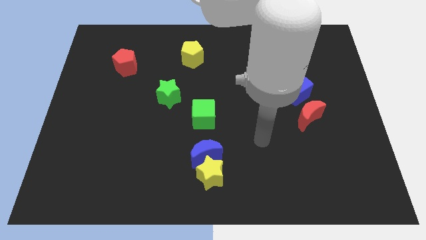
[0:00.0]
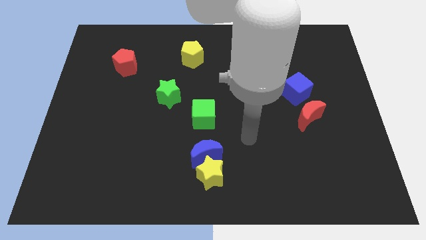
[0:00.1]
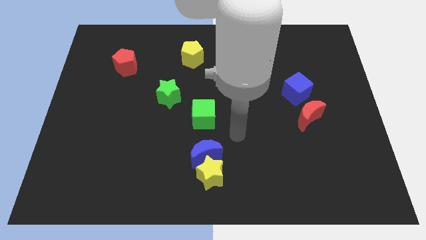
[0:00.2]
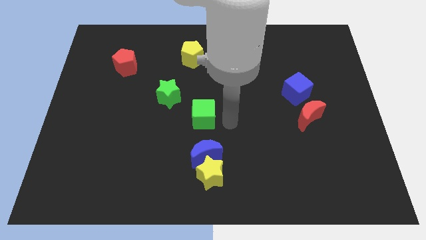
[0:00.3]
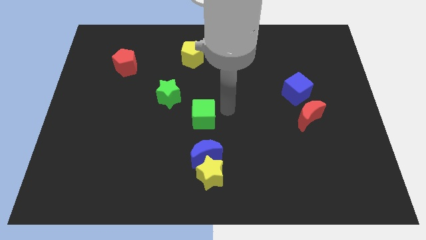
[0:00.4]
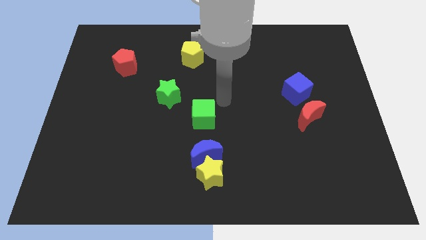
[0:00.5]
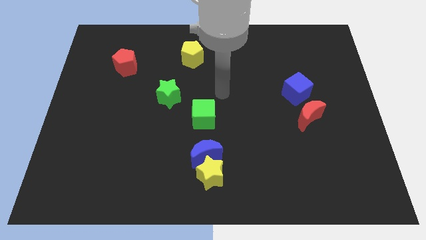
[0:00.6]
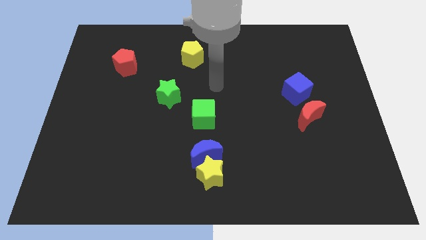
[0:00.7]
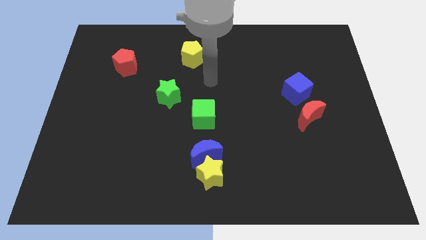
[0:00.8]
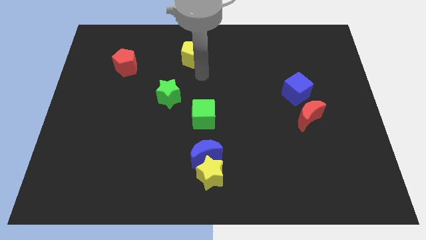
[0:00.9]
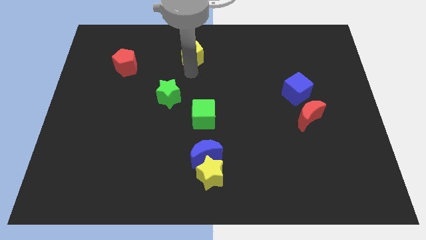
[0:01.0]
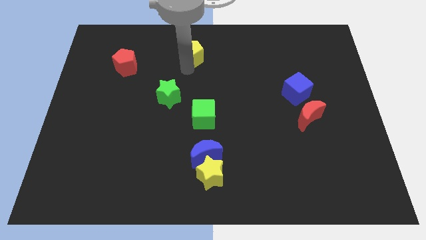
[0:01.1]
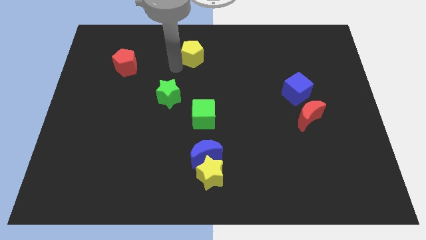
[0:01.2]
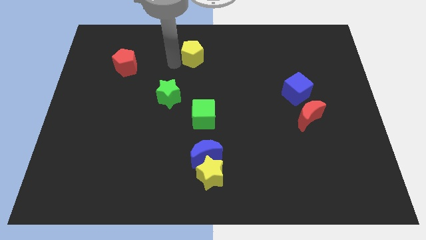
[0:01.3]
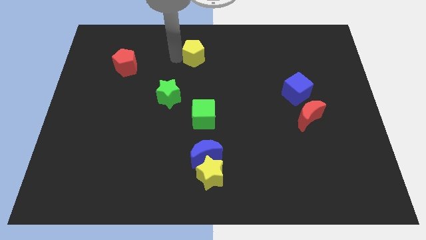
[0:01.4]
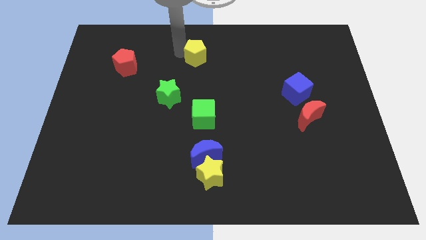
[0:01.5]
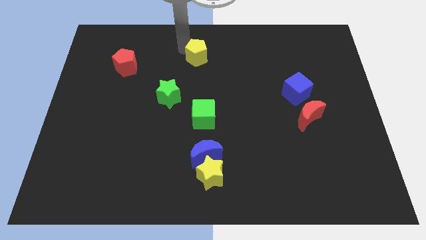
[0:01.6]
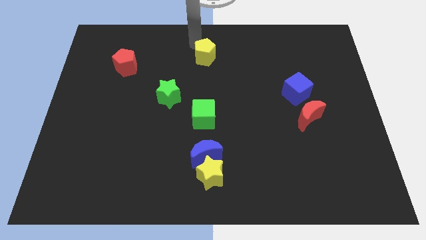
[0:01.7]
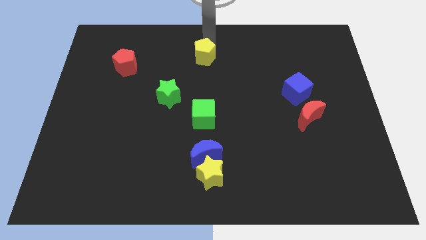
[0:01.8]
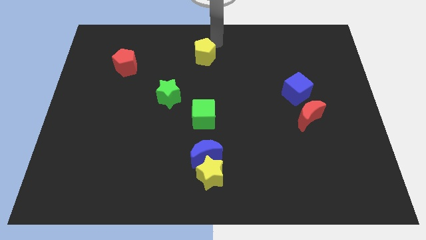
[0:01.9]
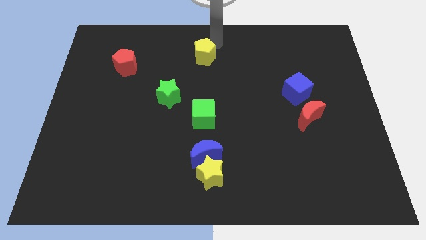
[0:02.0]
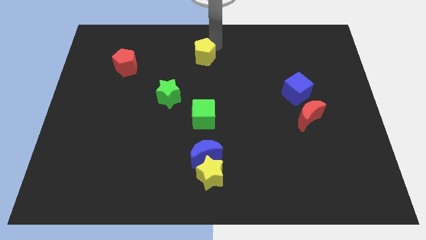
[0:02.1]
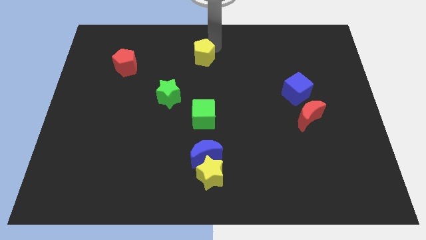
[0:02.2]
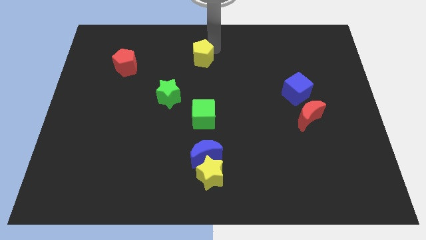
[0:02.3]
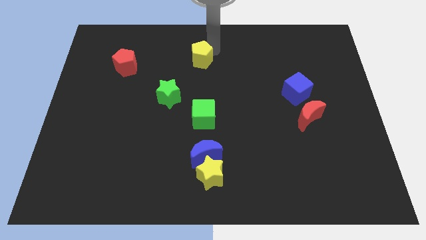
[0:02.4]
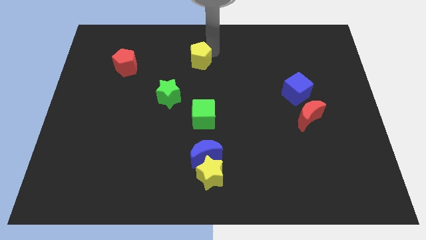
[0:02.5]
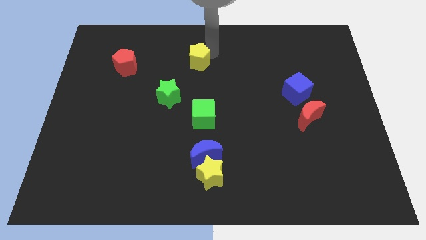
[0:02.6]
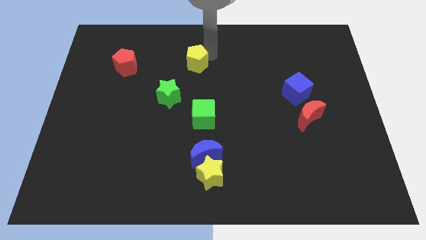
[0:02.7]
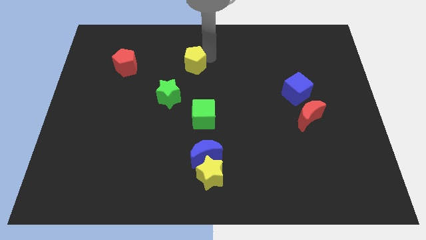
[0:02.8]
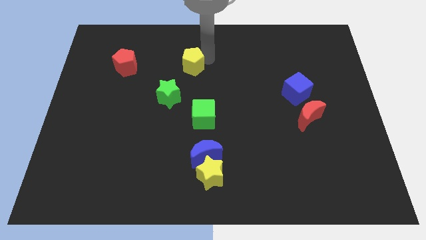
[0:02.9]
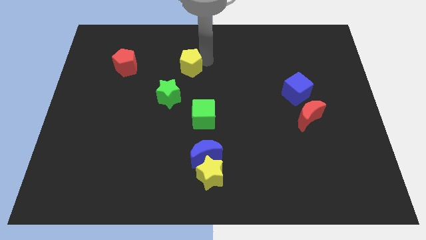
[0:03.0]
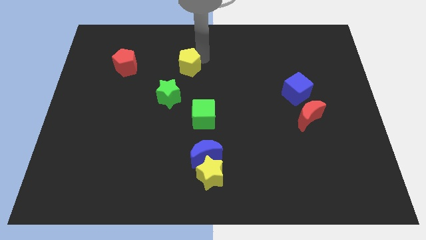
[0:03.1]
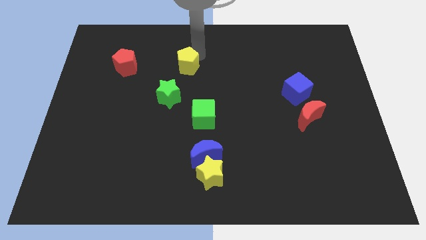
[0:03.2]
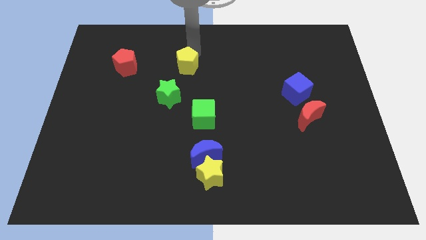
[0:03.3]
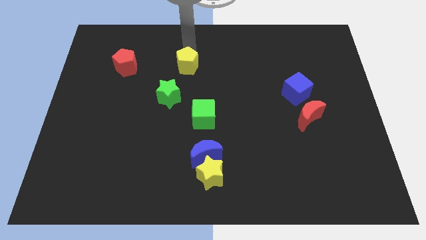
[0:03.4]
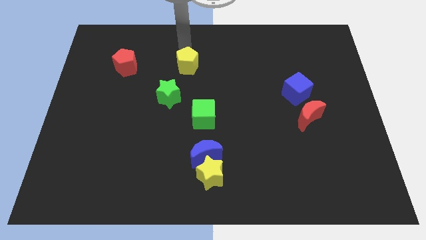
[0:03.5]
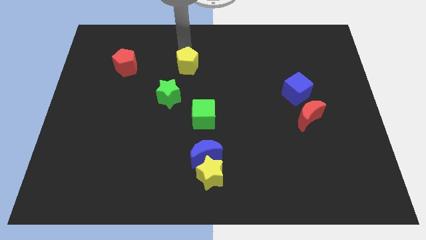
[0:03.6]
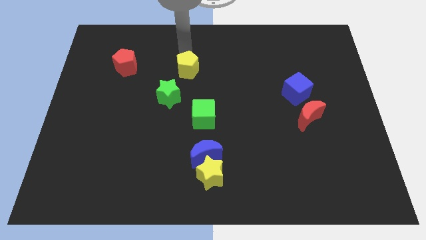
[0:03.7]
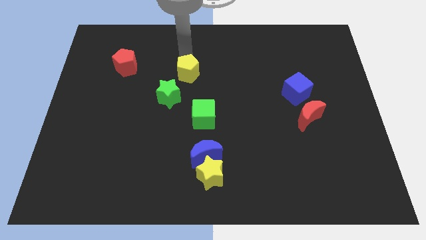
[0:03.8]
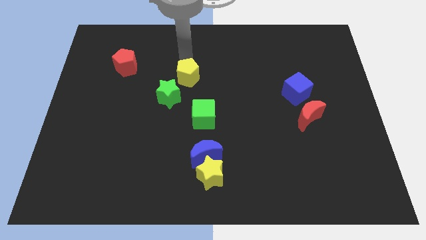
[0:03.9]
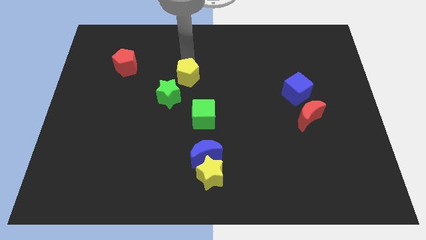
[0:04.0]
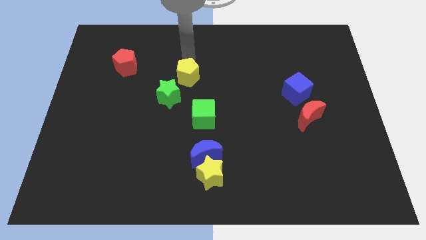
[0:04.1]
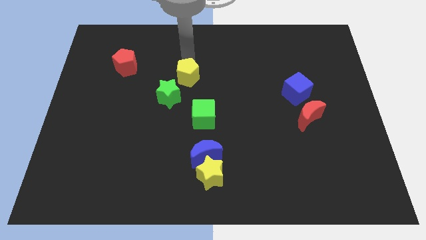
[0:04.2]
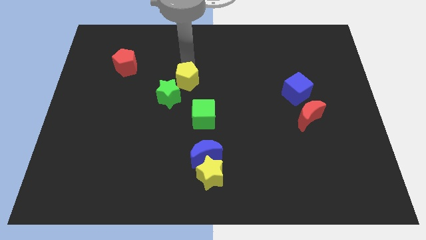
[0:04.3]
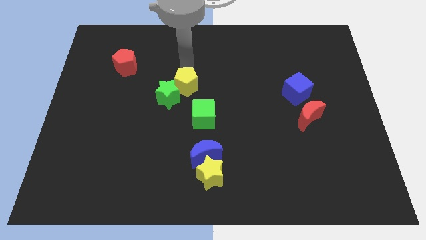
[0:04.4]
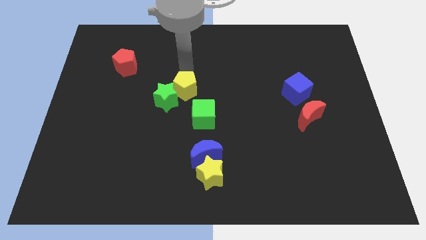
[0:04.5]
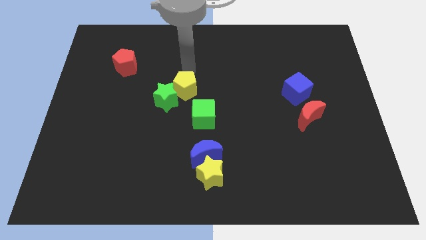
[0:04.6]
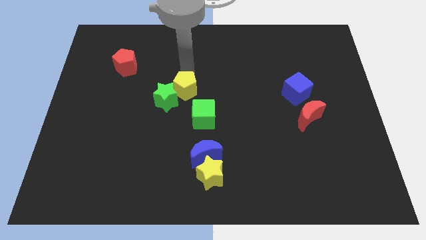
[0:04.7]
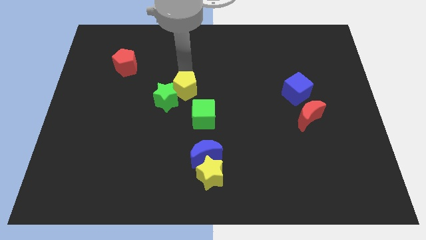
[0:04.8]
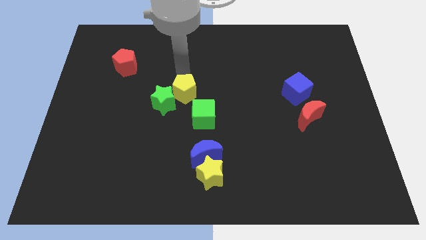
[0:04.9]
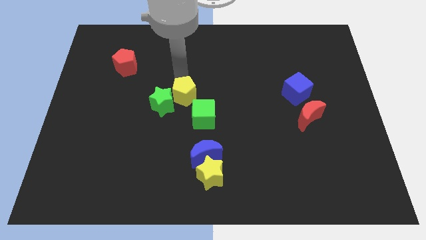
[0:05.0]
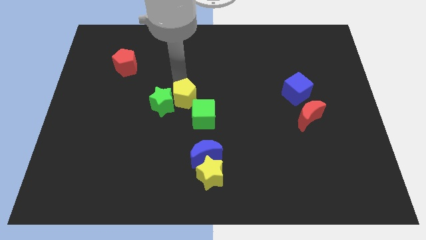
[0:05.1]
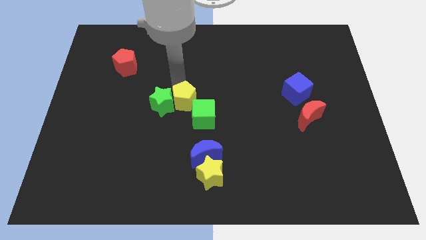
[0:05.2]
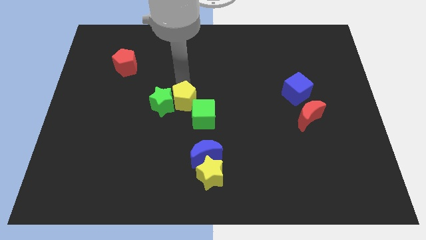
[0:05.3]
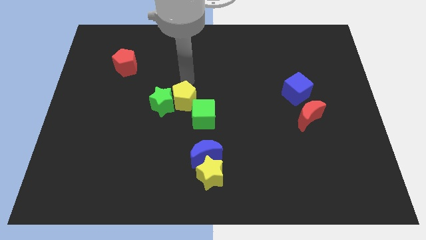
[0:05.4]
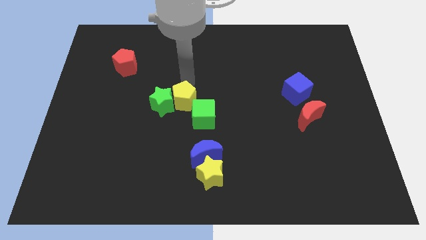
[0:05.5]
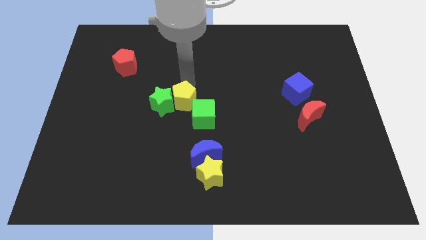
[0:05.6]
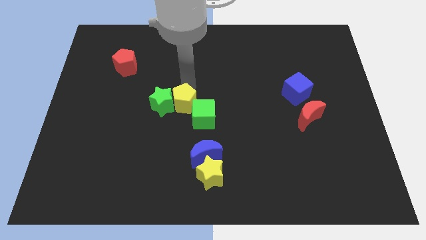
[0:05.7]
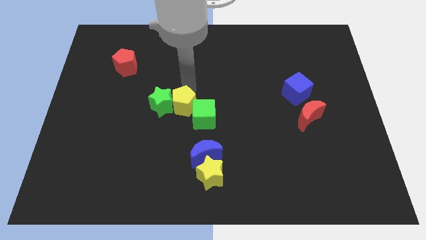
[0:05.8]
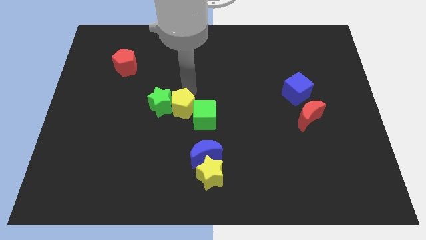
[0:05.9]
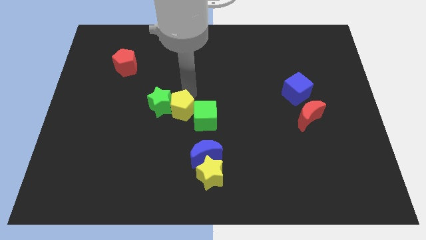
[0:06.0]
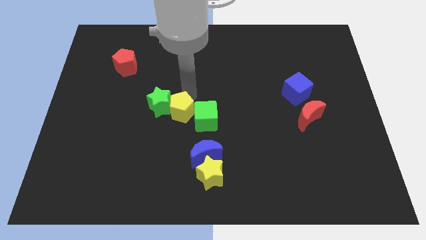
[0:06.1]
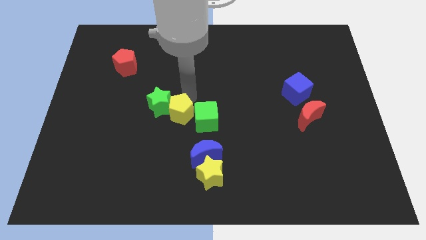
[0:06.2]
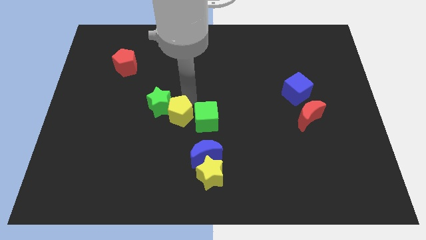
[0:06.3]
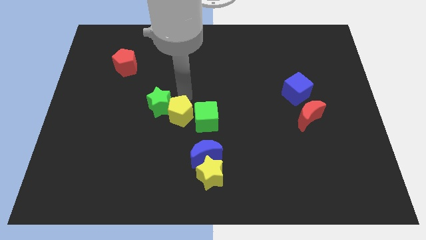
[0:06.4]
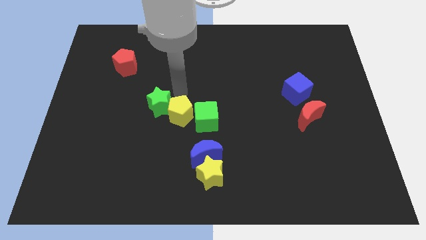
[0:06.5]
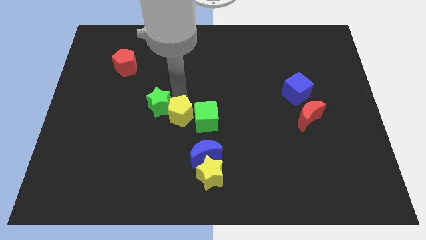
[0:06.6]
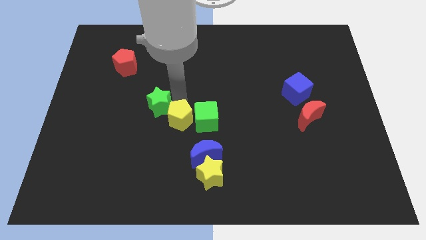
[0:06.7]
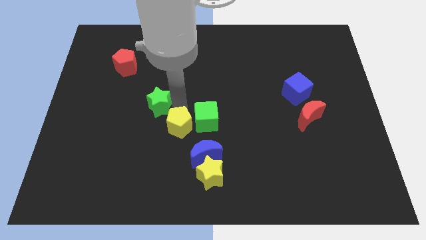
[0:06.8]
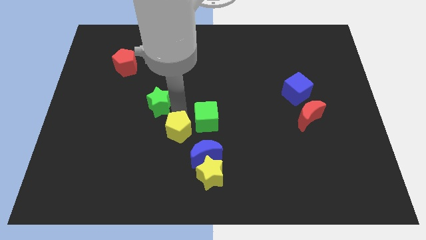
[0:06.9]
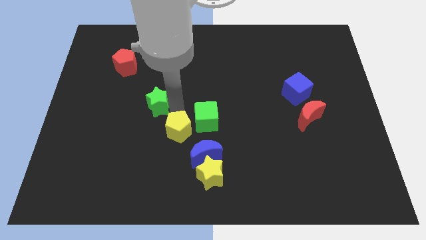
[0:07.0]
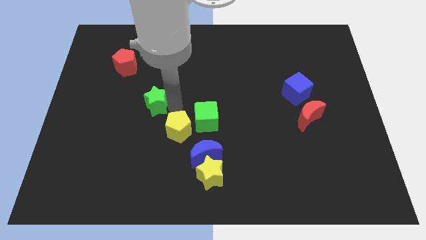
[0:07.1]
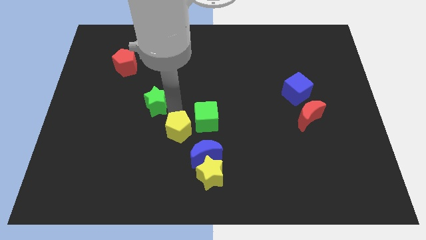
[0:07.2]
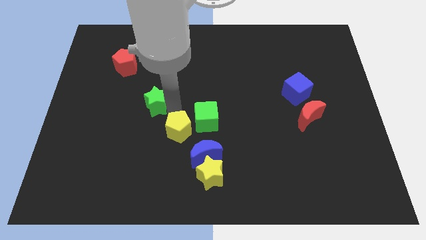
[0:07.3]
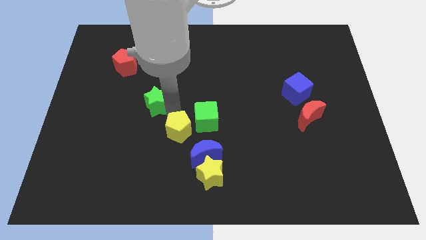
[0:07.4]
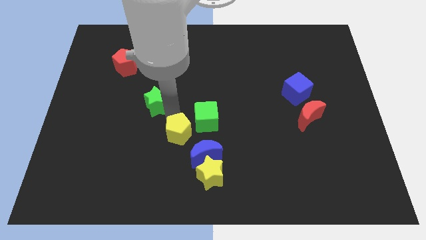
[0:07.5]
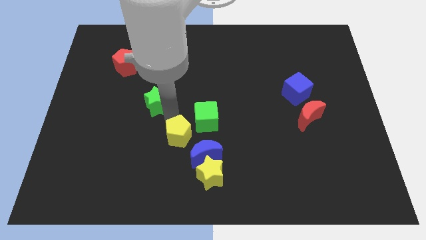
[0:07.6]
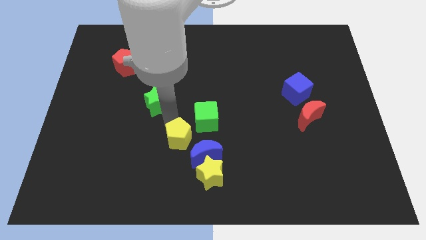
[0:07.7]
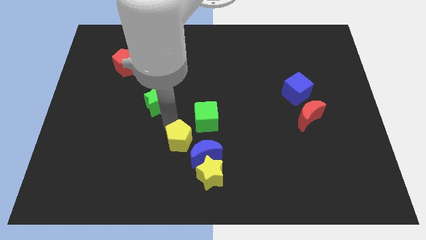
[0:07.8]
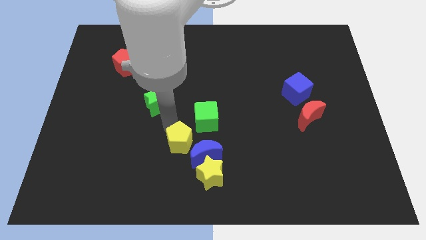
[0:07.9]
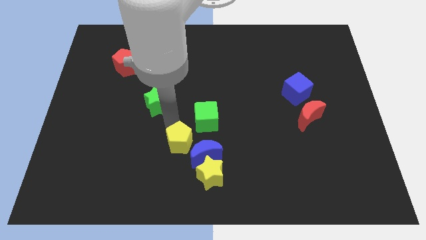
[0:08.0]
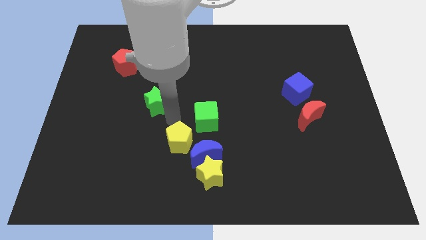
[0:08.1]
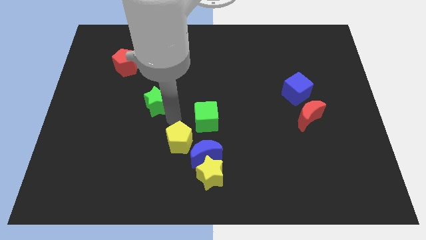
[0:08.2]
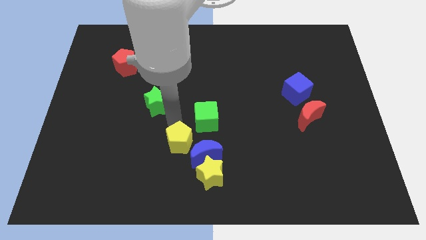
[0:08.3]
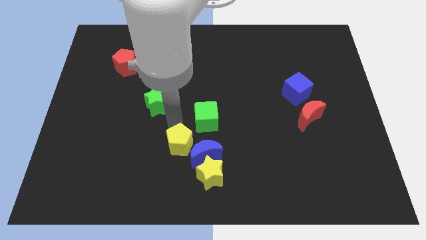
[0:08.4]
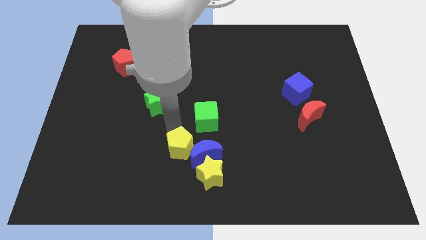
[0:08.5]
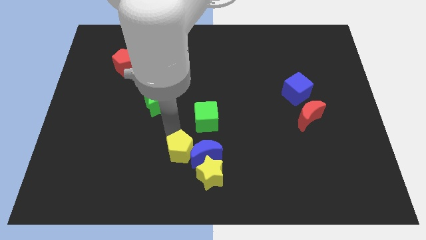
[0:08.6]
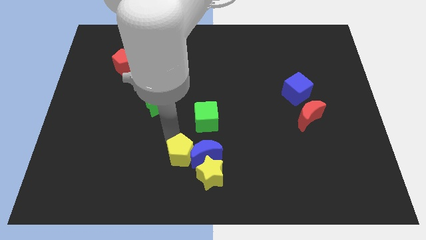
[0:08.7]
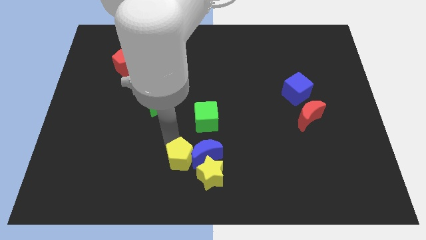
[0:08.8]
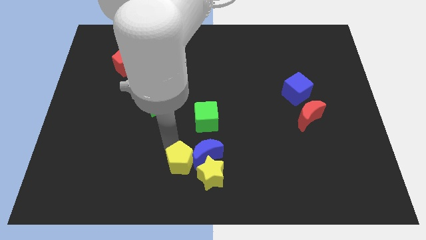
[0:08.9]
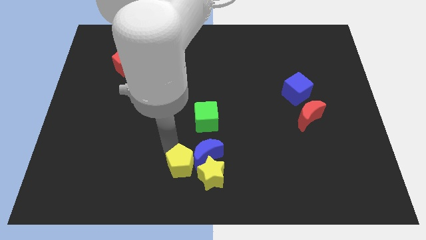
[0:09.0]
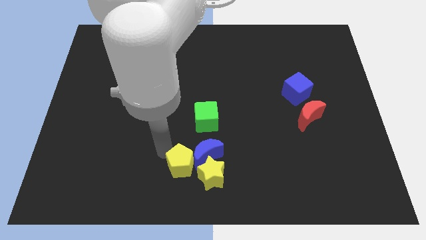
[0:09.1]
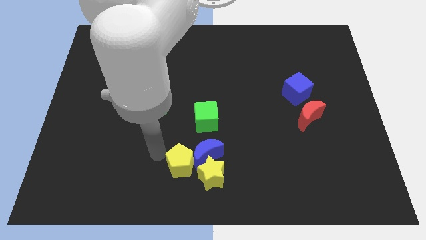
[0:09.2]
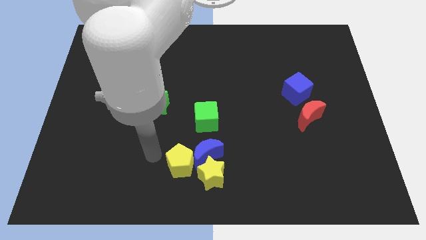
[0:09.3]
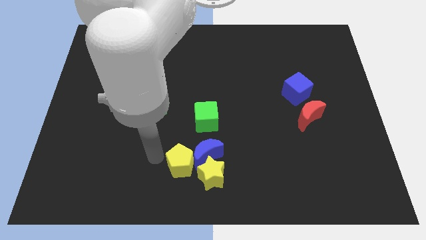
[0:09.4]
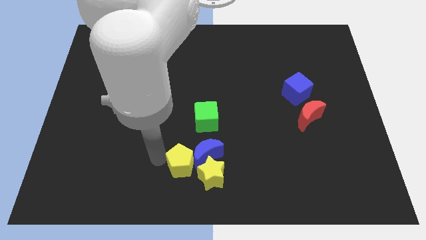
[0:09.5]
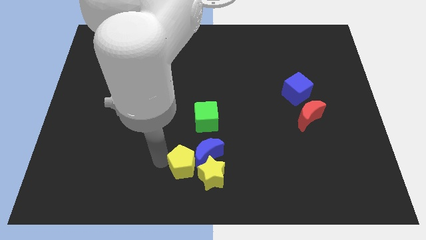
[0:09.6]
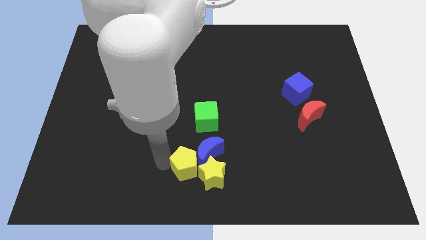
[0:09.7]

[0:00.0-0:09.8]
push the yellow pentagon towards the yellow star
